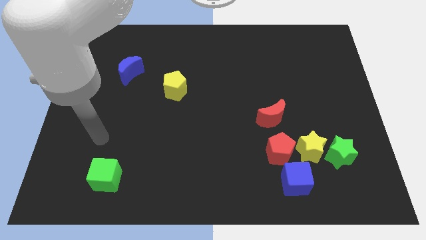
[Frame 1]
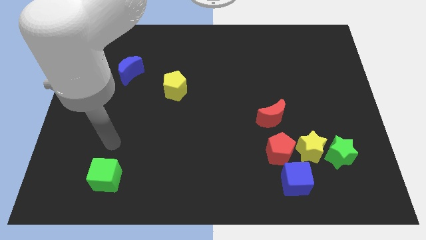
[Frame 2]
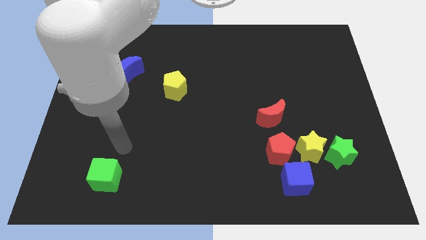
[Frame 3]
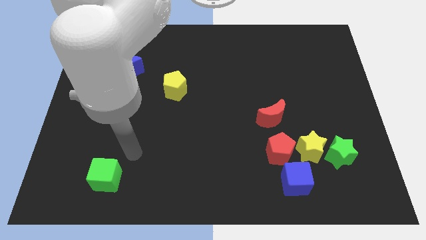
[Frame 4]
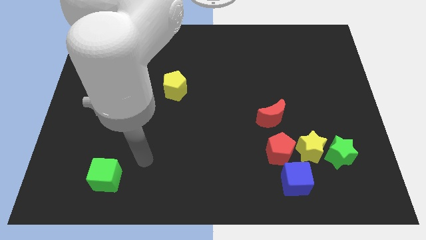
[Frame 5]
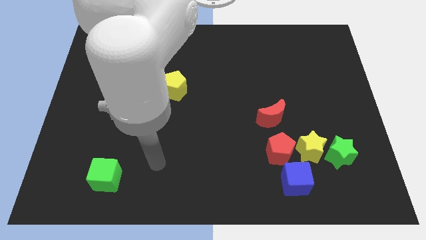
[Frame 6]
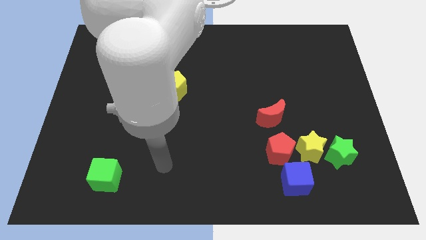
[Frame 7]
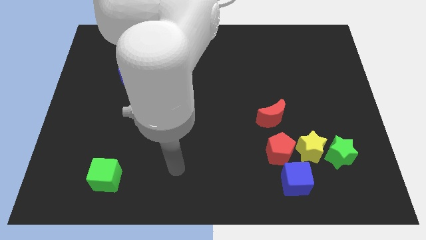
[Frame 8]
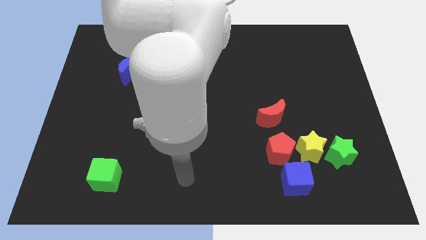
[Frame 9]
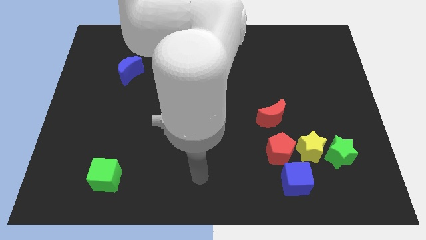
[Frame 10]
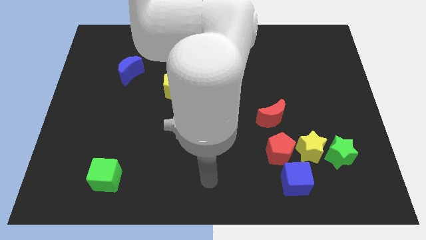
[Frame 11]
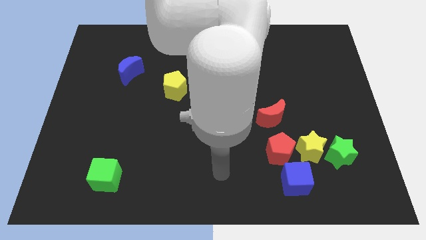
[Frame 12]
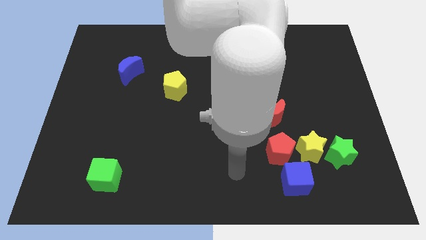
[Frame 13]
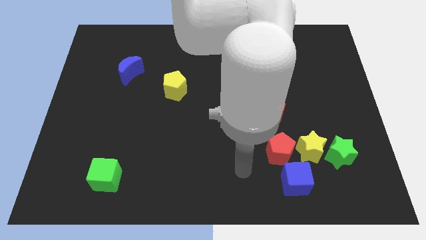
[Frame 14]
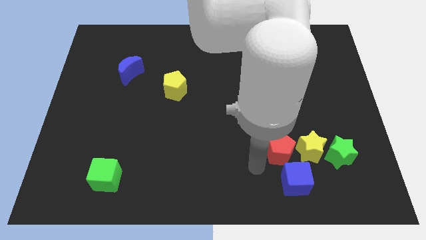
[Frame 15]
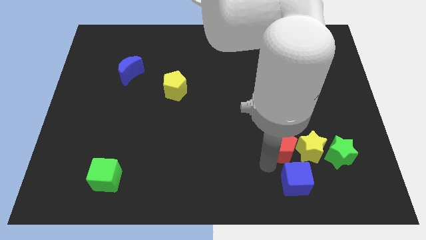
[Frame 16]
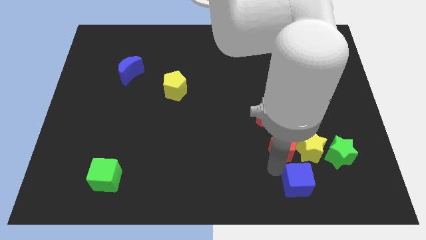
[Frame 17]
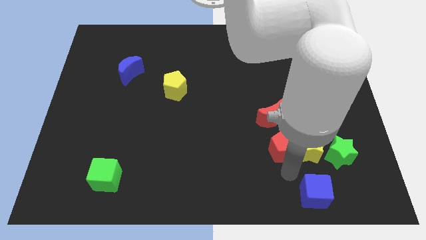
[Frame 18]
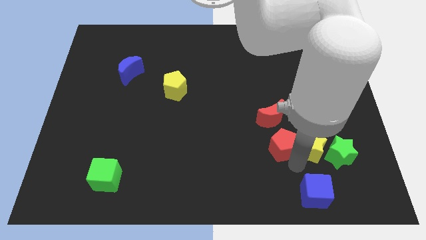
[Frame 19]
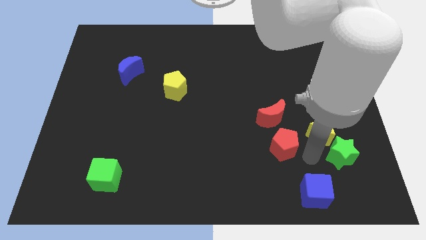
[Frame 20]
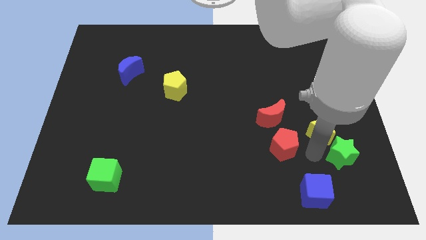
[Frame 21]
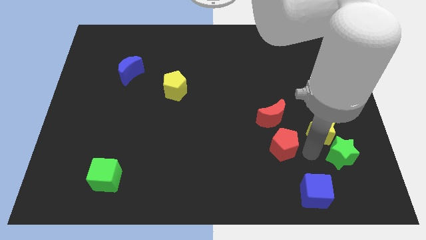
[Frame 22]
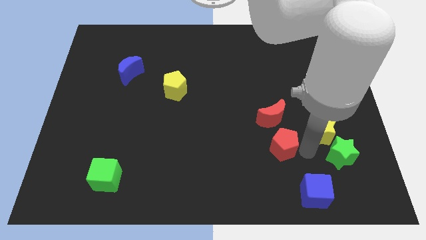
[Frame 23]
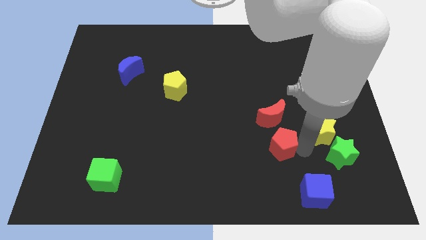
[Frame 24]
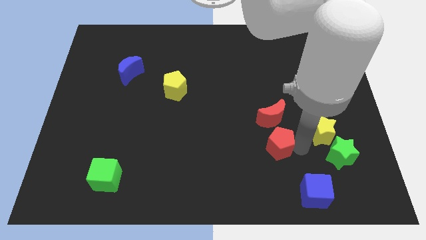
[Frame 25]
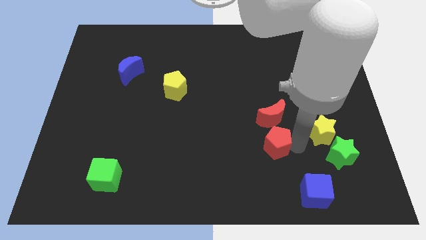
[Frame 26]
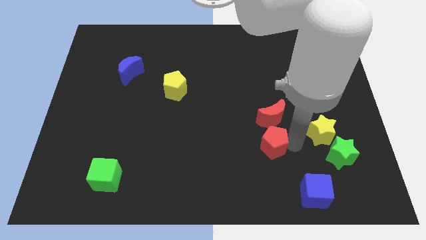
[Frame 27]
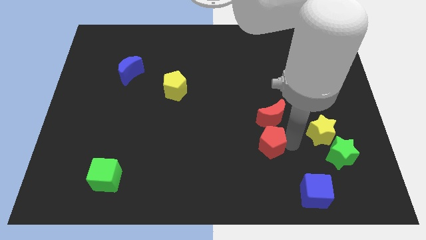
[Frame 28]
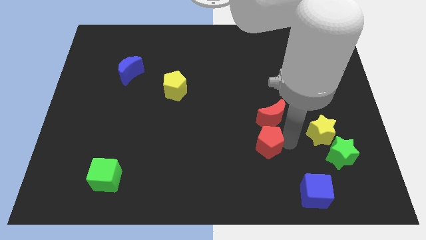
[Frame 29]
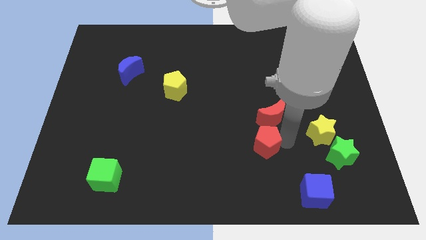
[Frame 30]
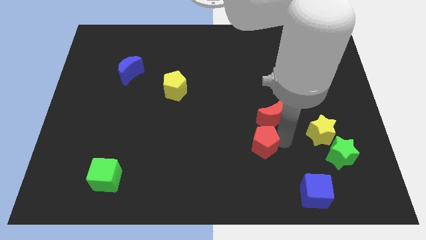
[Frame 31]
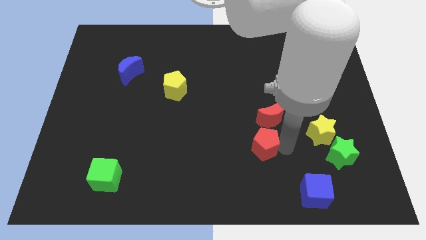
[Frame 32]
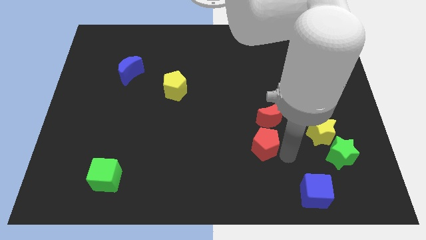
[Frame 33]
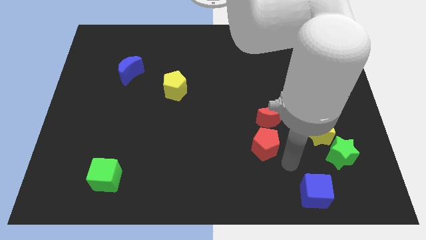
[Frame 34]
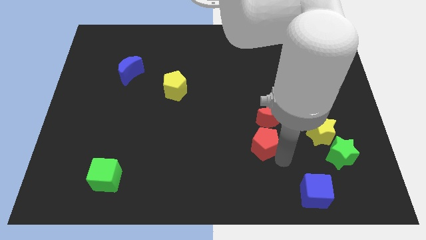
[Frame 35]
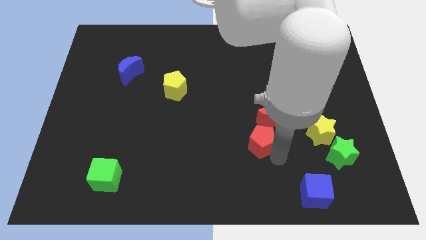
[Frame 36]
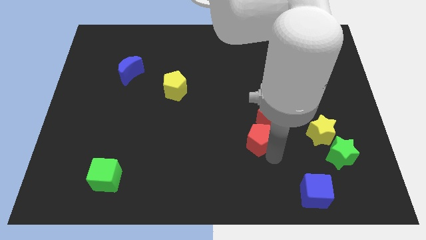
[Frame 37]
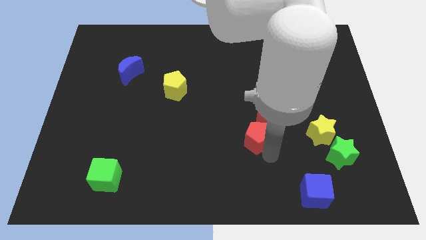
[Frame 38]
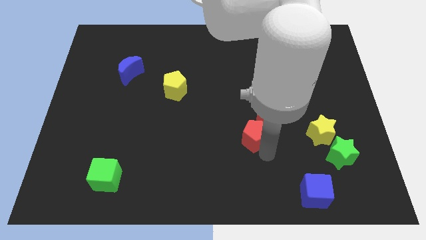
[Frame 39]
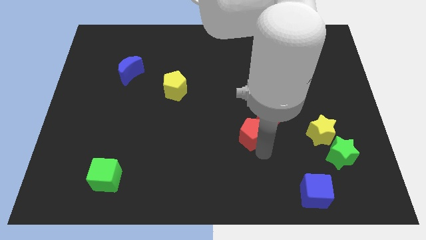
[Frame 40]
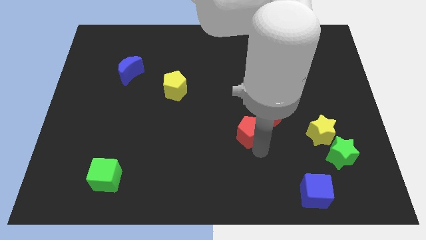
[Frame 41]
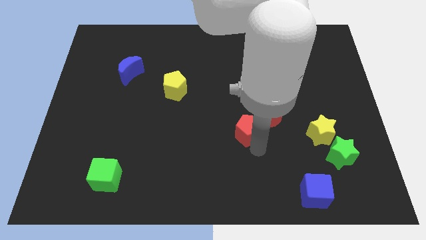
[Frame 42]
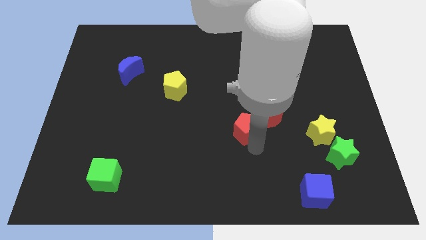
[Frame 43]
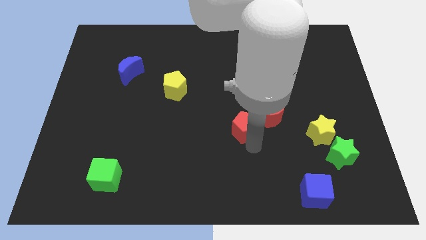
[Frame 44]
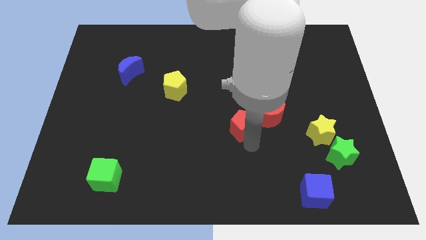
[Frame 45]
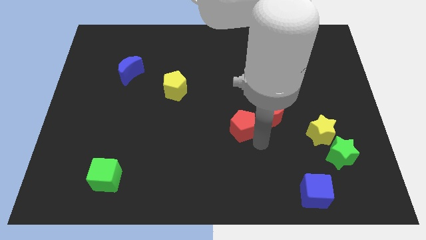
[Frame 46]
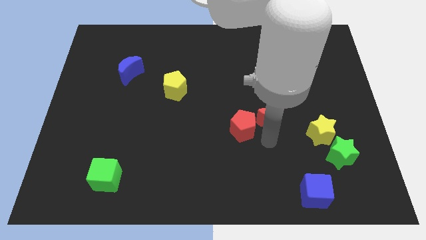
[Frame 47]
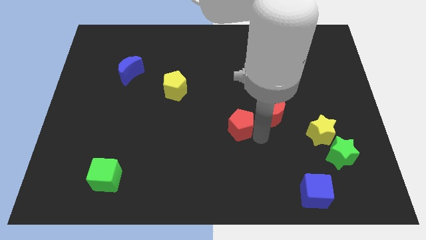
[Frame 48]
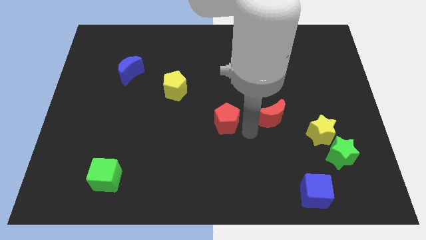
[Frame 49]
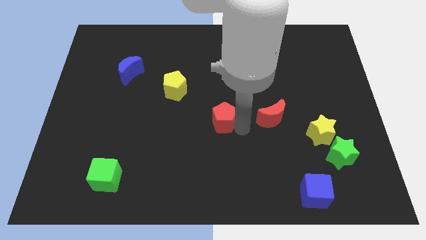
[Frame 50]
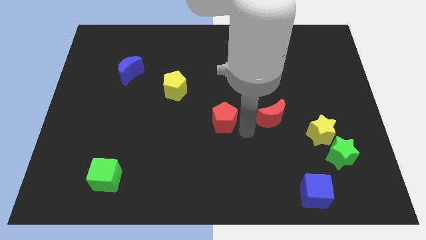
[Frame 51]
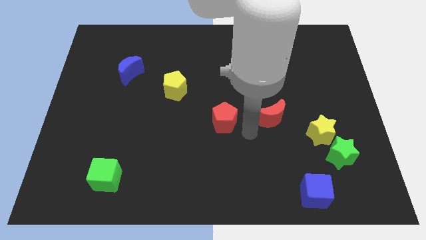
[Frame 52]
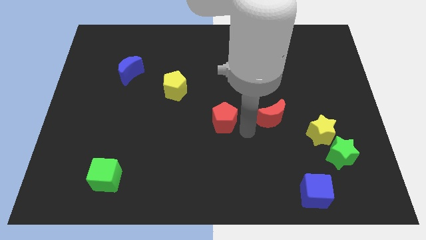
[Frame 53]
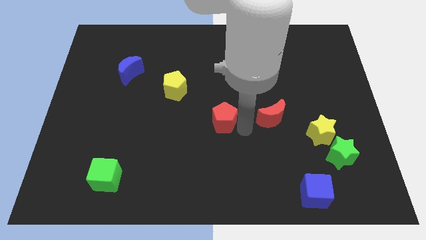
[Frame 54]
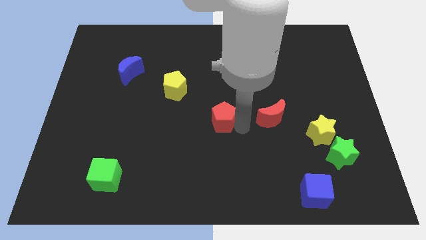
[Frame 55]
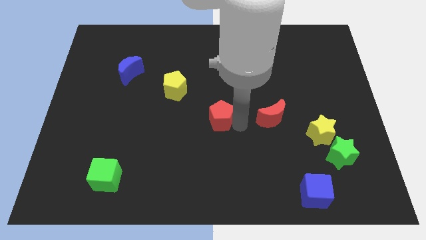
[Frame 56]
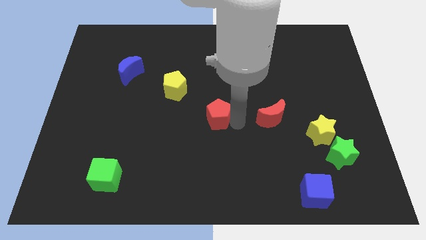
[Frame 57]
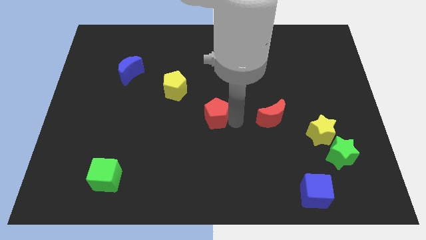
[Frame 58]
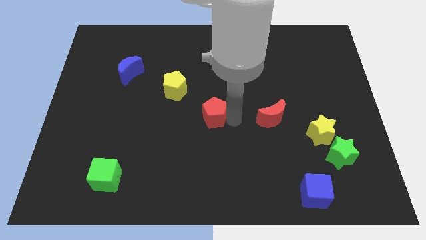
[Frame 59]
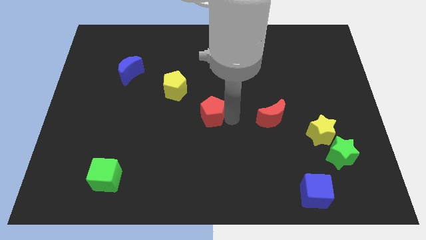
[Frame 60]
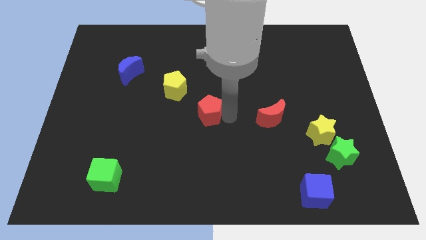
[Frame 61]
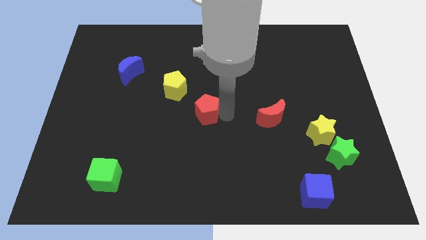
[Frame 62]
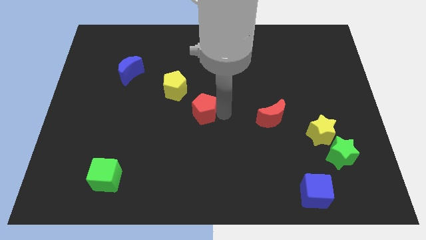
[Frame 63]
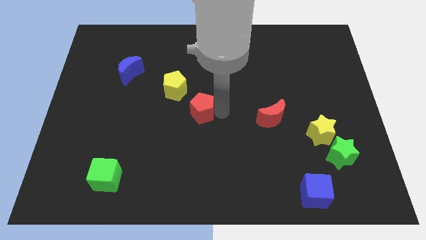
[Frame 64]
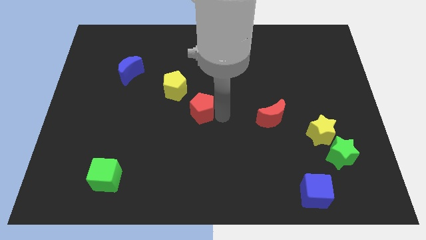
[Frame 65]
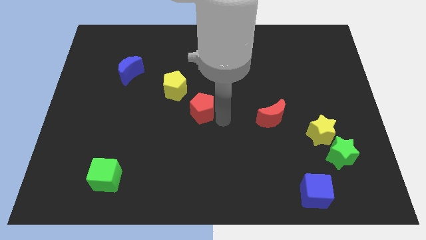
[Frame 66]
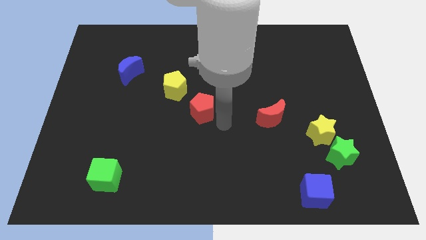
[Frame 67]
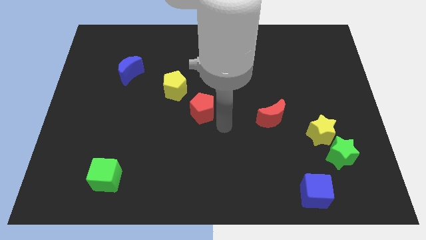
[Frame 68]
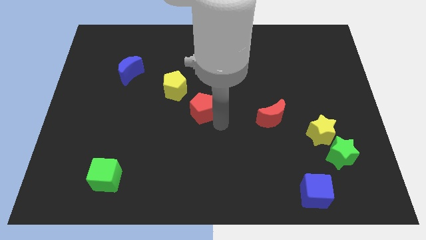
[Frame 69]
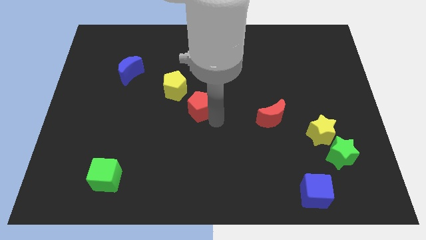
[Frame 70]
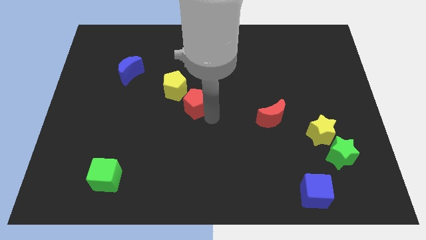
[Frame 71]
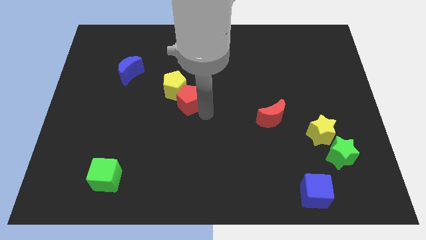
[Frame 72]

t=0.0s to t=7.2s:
slide the red pentagon next to the yellow pentagon

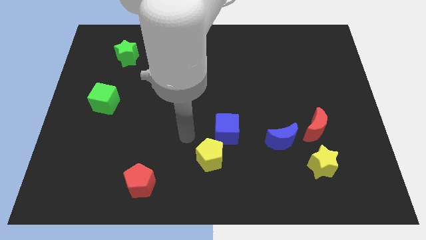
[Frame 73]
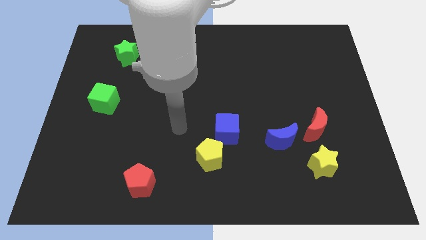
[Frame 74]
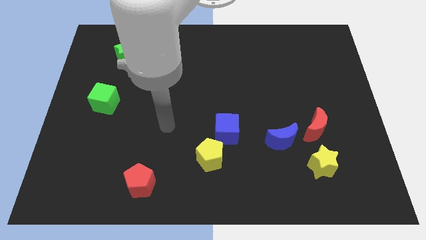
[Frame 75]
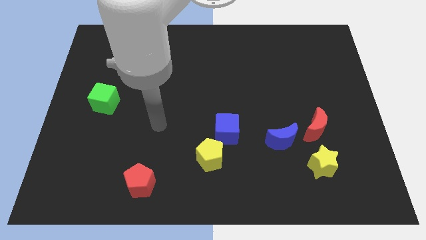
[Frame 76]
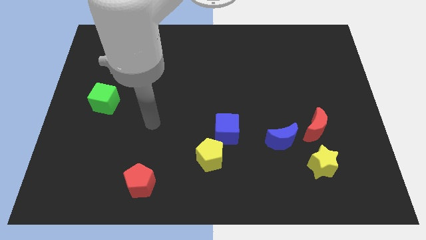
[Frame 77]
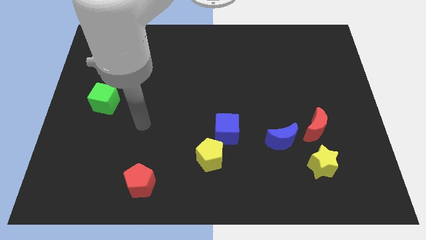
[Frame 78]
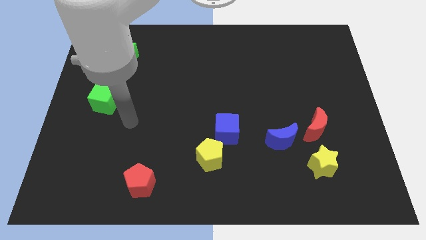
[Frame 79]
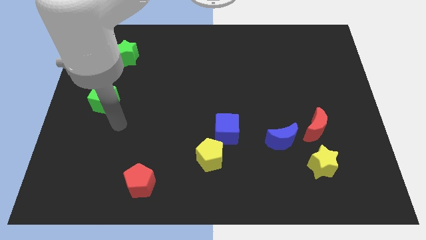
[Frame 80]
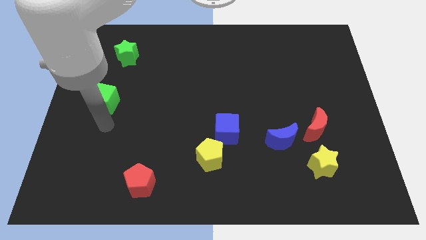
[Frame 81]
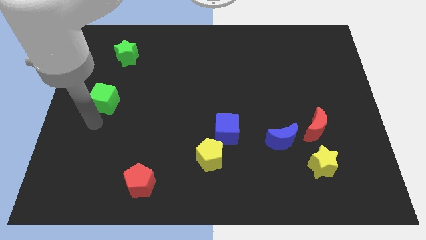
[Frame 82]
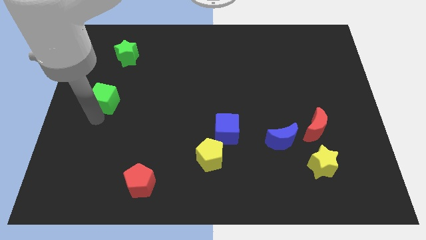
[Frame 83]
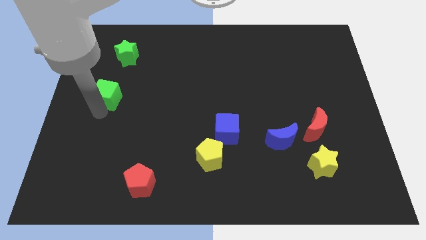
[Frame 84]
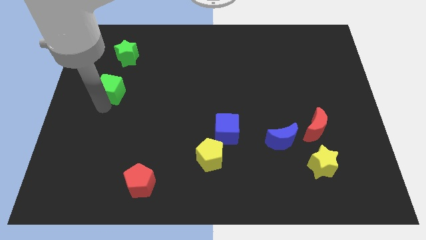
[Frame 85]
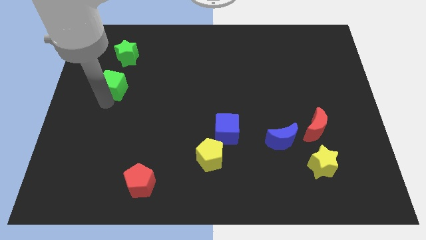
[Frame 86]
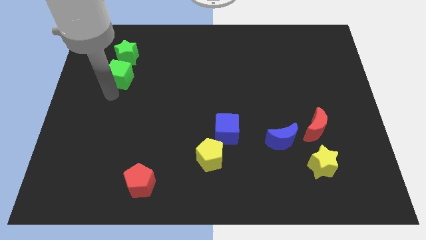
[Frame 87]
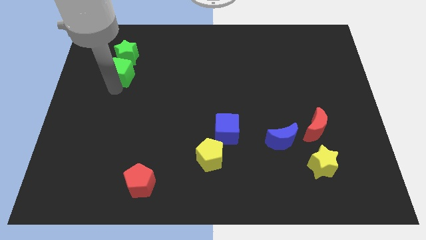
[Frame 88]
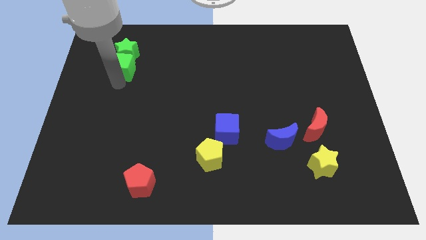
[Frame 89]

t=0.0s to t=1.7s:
slide the green cube next to the green star
